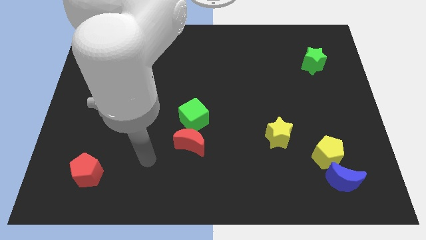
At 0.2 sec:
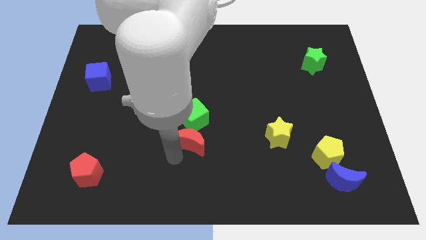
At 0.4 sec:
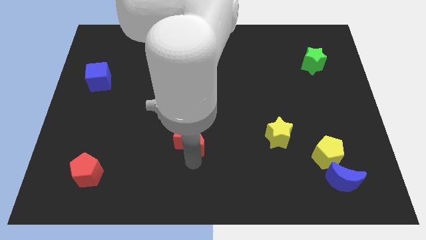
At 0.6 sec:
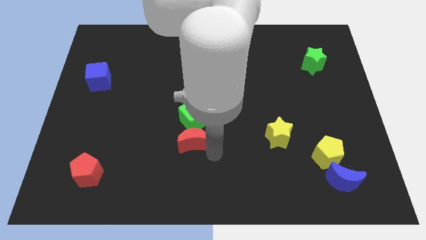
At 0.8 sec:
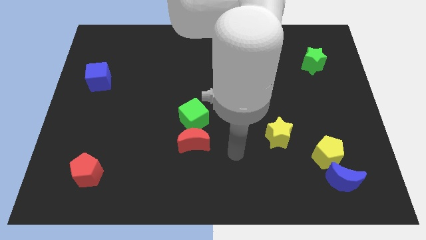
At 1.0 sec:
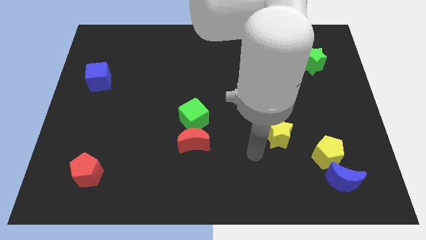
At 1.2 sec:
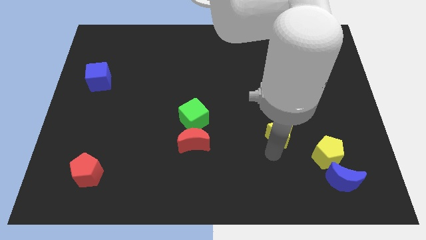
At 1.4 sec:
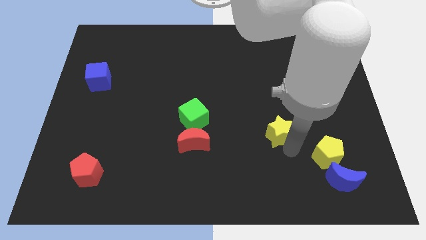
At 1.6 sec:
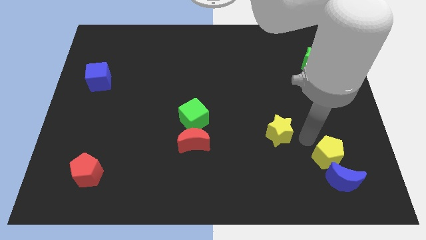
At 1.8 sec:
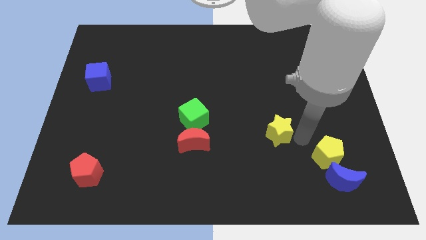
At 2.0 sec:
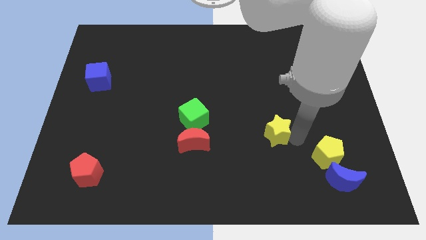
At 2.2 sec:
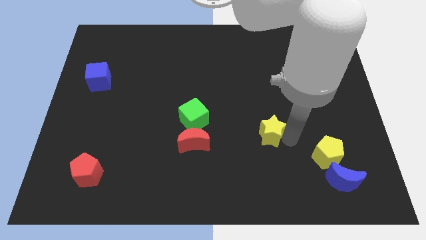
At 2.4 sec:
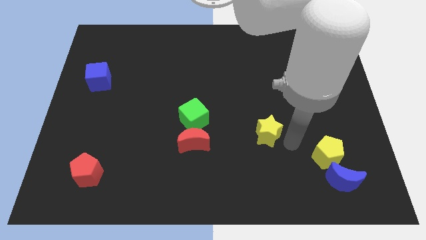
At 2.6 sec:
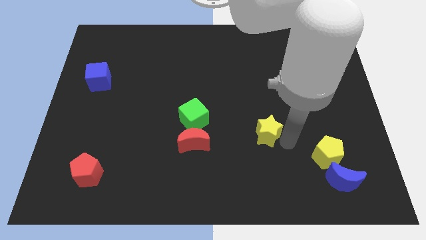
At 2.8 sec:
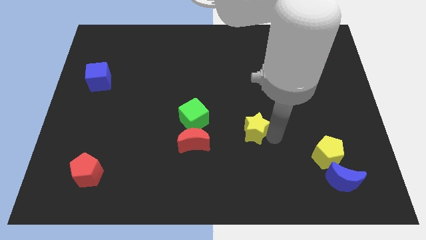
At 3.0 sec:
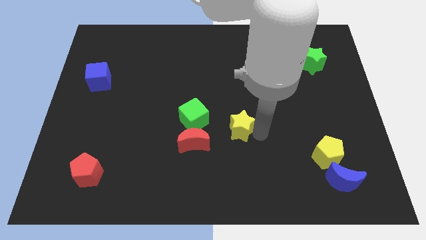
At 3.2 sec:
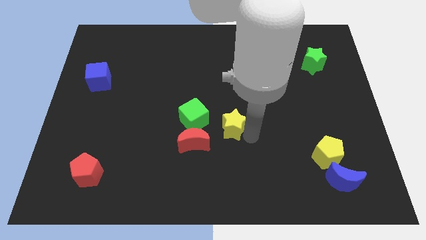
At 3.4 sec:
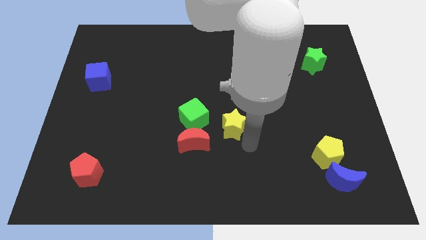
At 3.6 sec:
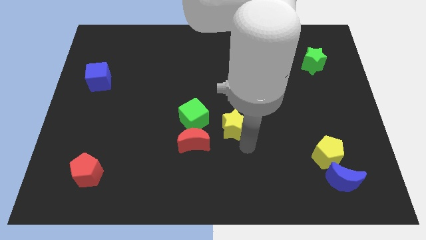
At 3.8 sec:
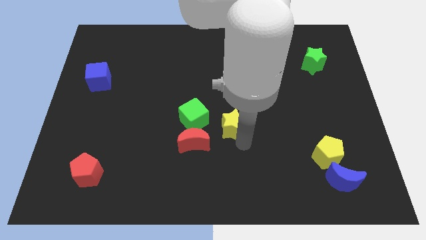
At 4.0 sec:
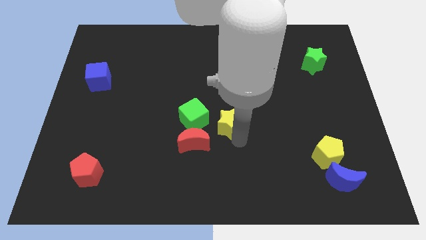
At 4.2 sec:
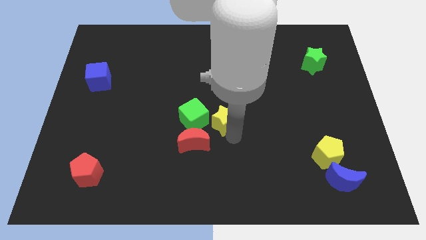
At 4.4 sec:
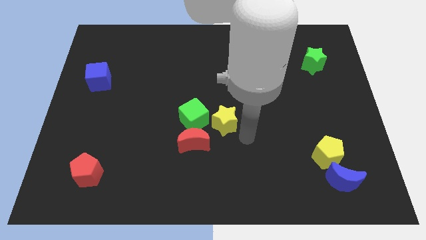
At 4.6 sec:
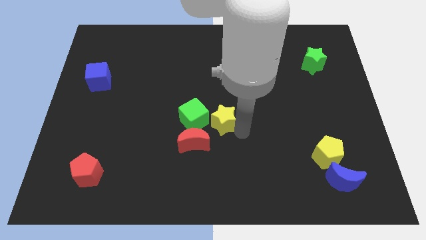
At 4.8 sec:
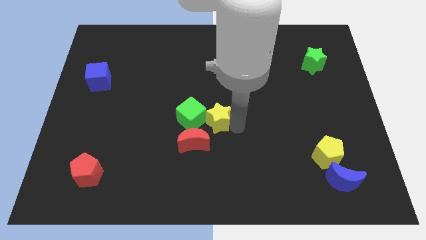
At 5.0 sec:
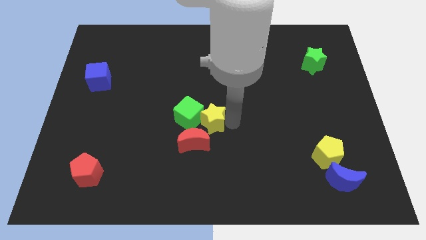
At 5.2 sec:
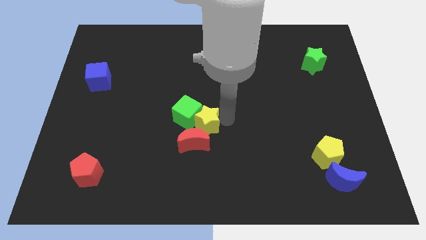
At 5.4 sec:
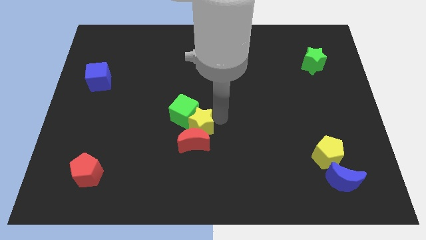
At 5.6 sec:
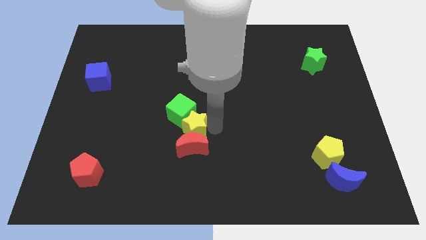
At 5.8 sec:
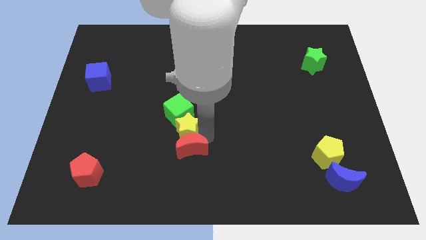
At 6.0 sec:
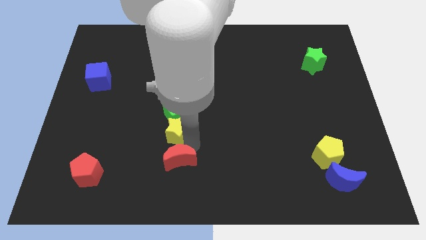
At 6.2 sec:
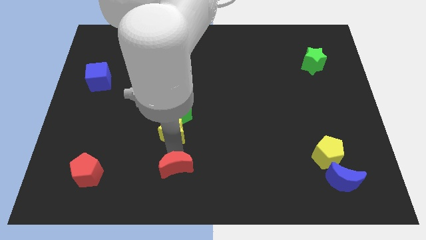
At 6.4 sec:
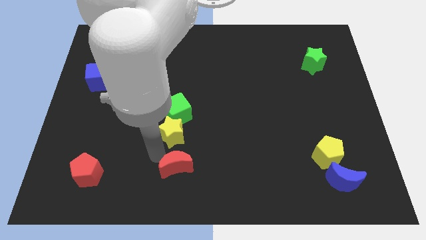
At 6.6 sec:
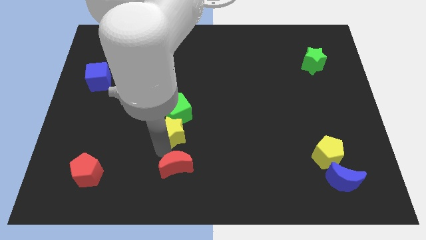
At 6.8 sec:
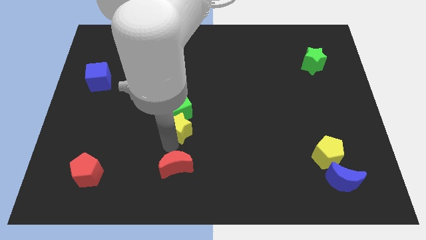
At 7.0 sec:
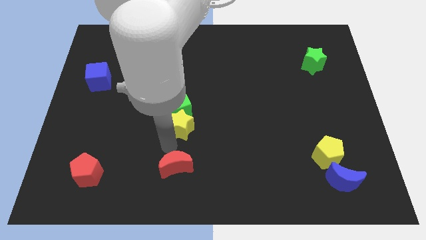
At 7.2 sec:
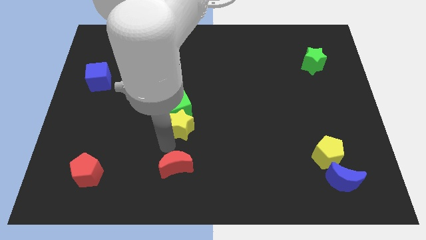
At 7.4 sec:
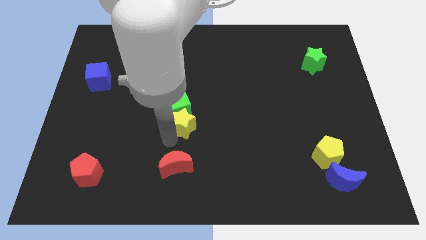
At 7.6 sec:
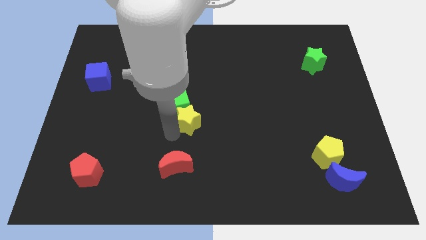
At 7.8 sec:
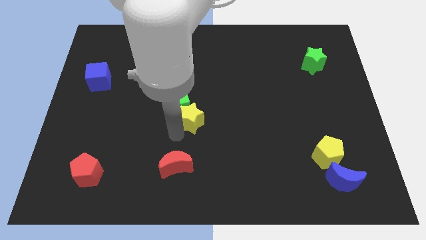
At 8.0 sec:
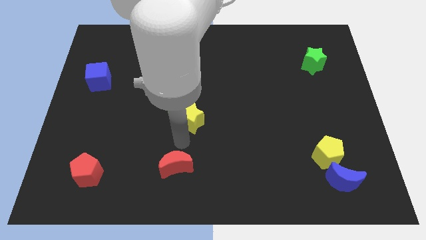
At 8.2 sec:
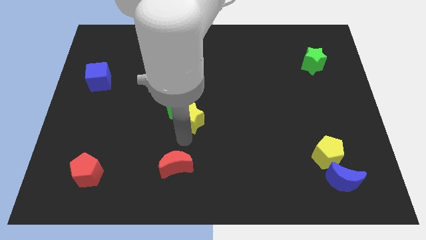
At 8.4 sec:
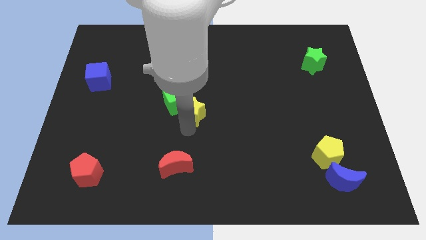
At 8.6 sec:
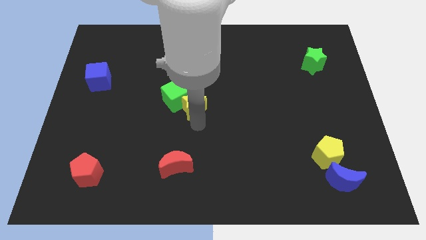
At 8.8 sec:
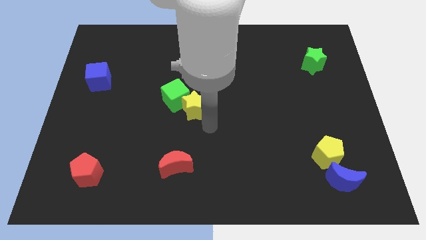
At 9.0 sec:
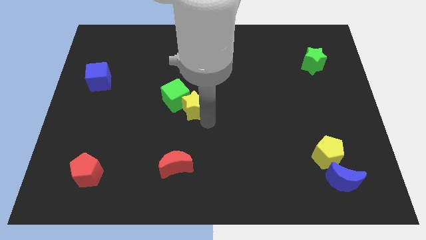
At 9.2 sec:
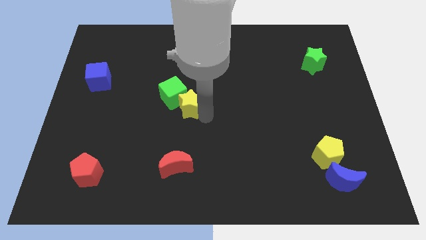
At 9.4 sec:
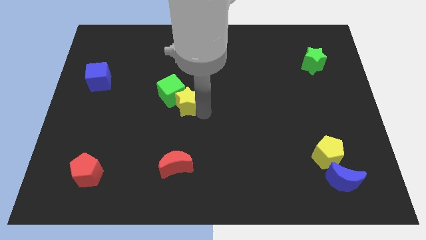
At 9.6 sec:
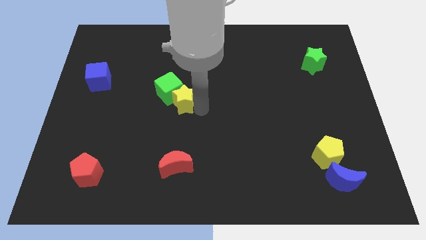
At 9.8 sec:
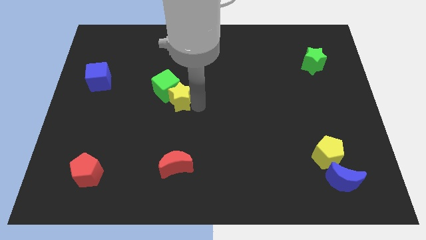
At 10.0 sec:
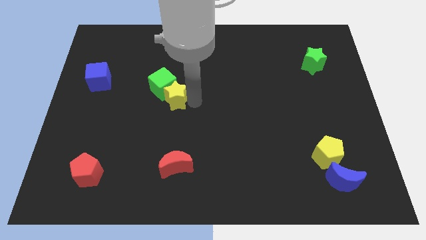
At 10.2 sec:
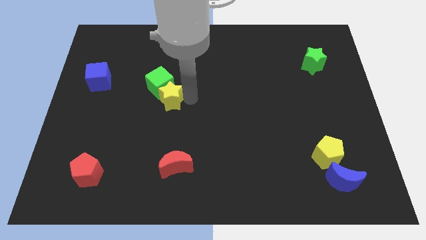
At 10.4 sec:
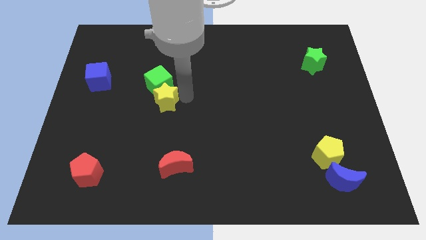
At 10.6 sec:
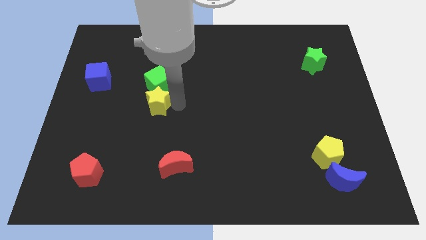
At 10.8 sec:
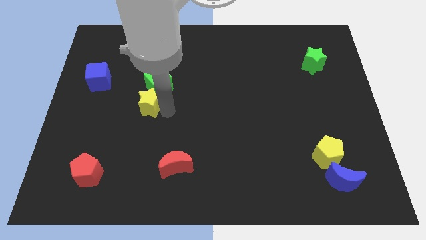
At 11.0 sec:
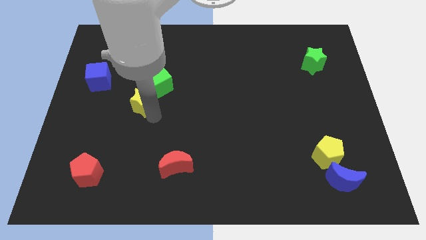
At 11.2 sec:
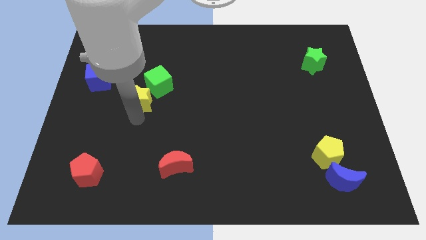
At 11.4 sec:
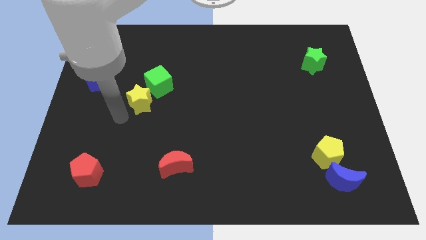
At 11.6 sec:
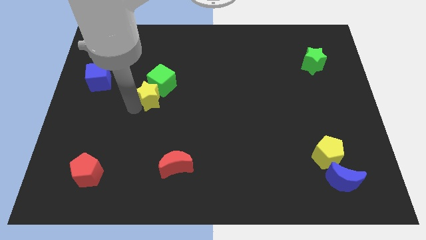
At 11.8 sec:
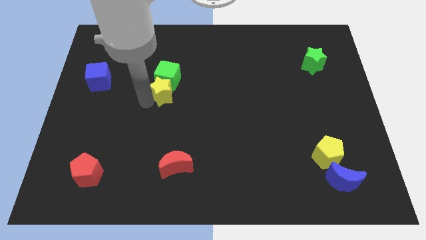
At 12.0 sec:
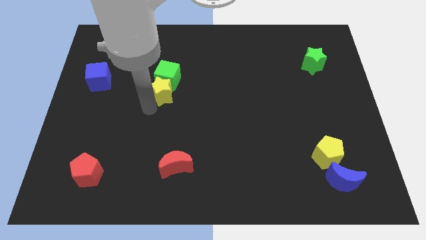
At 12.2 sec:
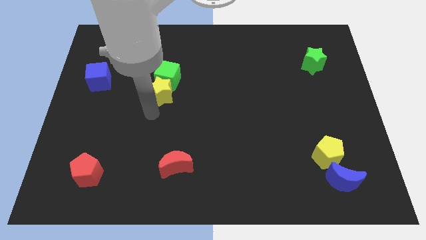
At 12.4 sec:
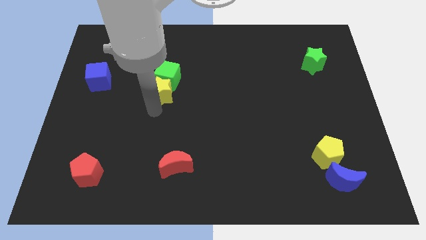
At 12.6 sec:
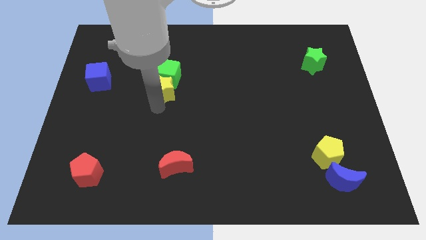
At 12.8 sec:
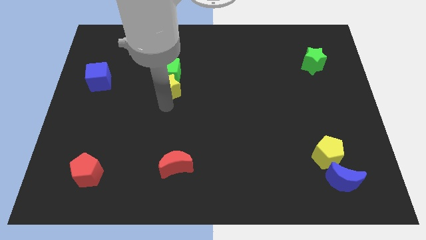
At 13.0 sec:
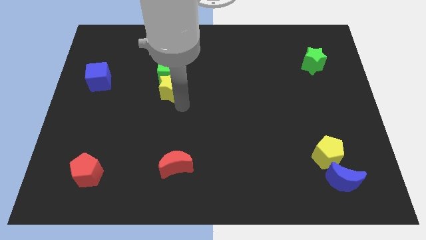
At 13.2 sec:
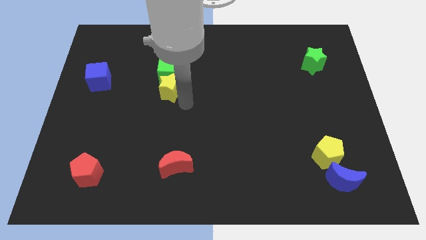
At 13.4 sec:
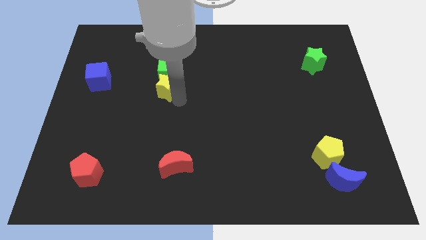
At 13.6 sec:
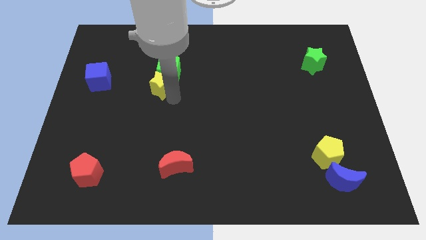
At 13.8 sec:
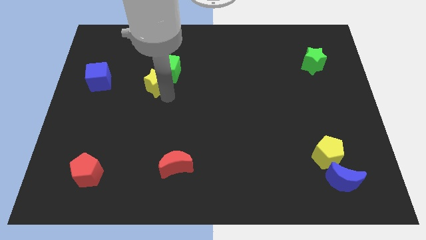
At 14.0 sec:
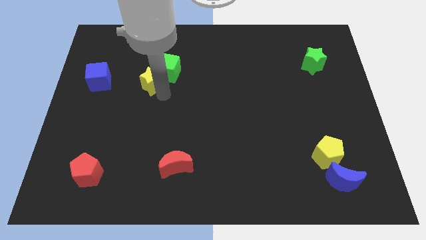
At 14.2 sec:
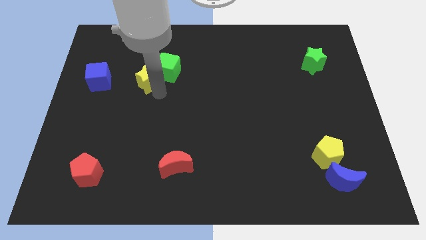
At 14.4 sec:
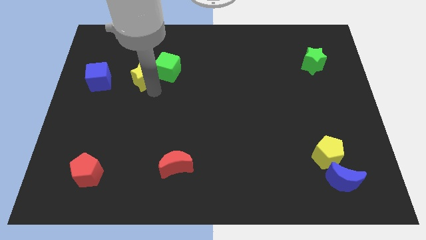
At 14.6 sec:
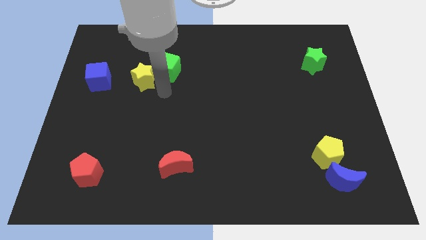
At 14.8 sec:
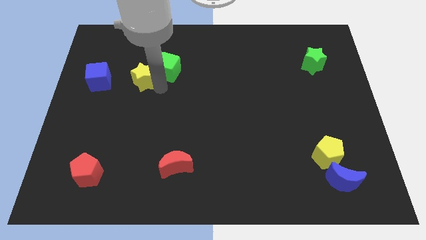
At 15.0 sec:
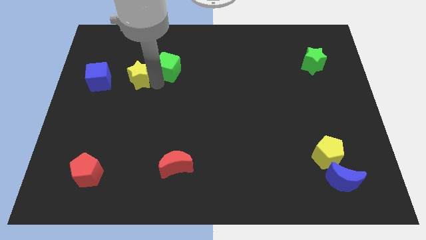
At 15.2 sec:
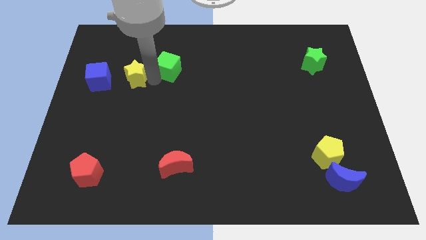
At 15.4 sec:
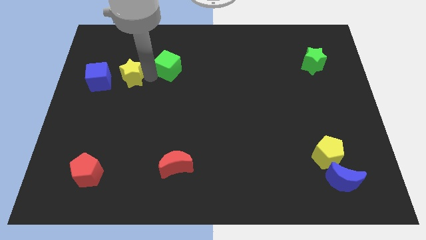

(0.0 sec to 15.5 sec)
put the yellow star diagonally up and to the right of the blue cube
